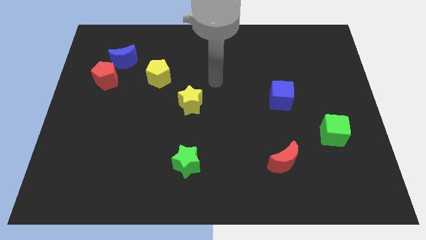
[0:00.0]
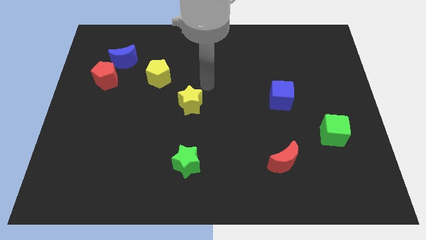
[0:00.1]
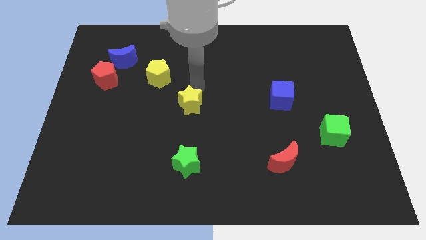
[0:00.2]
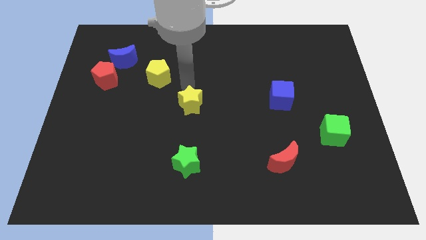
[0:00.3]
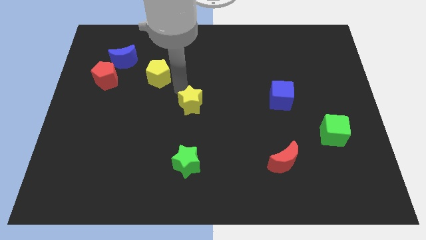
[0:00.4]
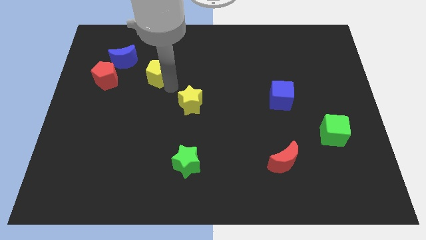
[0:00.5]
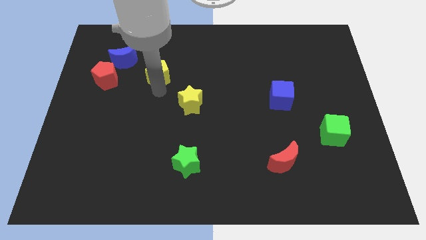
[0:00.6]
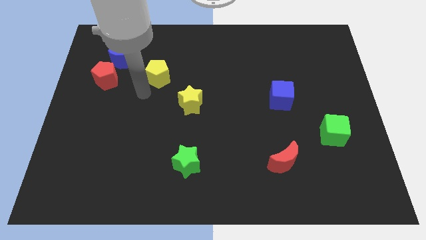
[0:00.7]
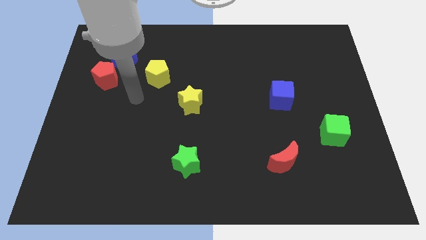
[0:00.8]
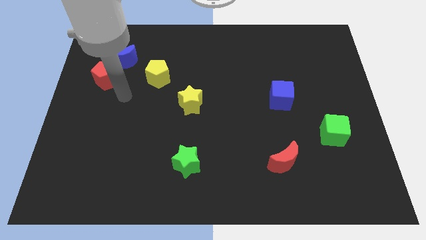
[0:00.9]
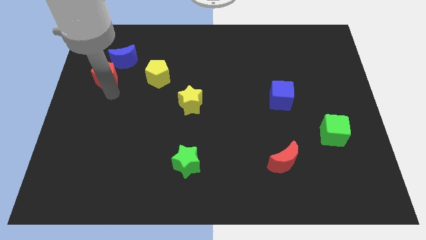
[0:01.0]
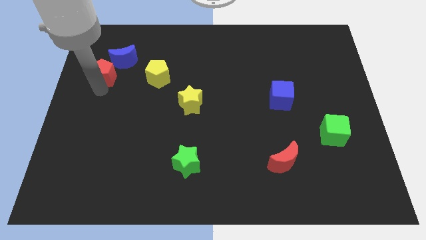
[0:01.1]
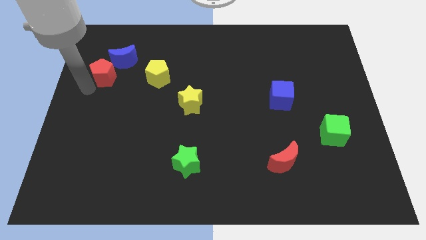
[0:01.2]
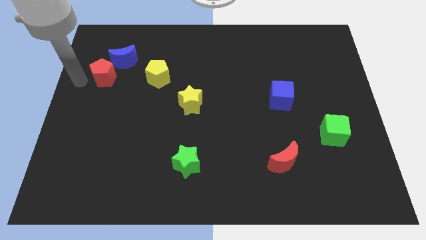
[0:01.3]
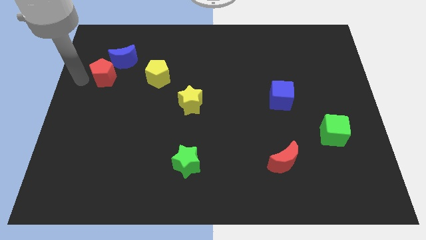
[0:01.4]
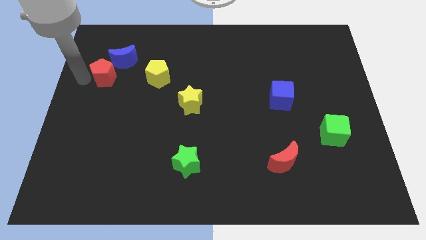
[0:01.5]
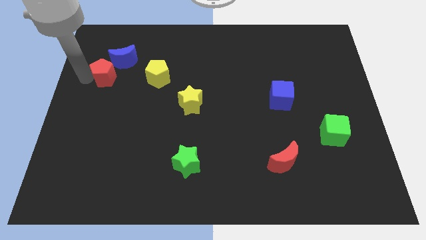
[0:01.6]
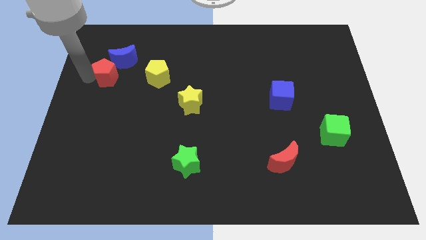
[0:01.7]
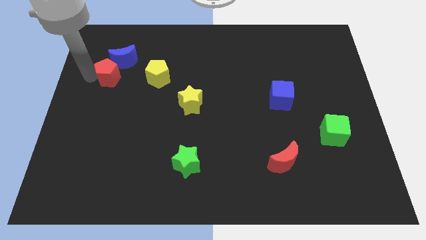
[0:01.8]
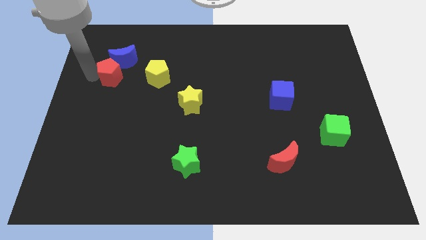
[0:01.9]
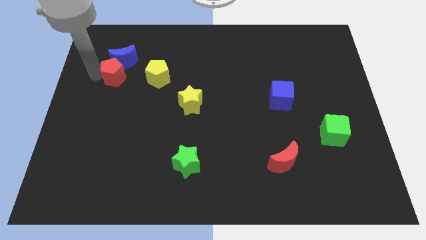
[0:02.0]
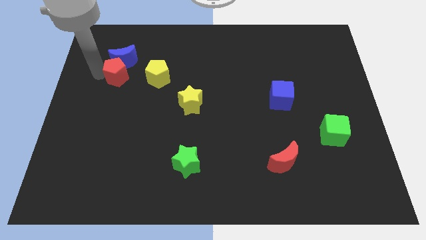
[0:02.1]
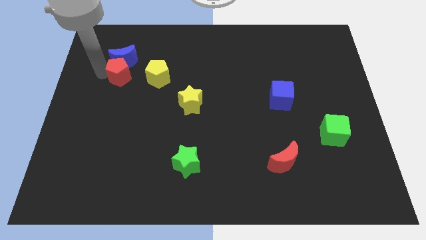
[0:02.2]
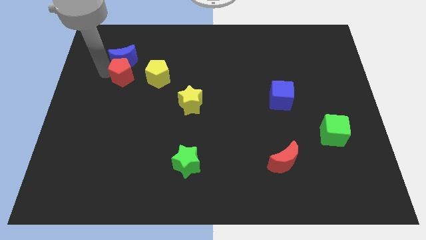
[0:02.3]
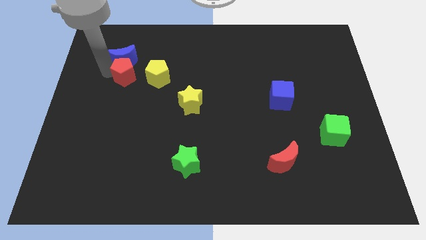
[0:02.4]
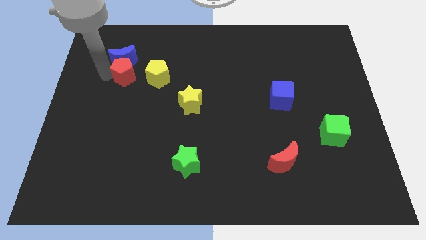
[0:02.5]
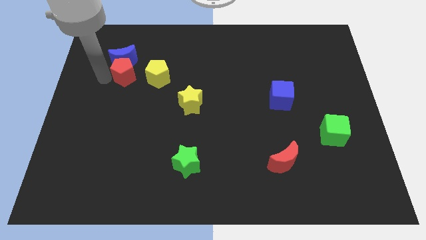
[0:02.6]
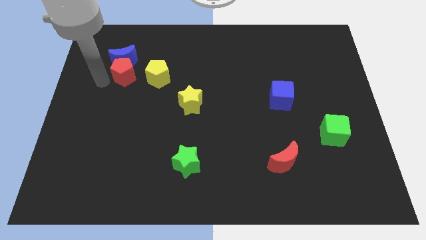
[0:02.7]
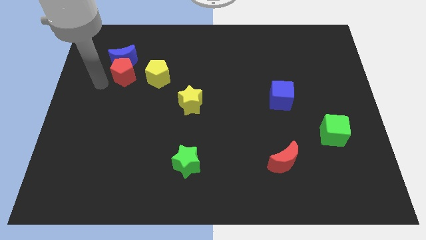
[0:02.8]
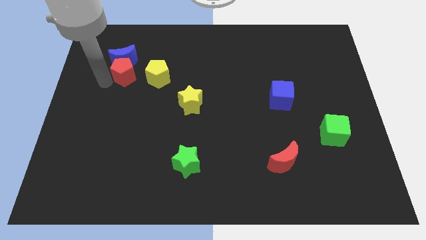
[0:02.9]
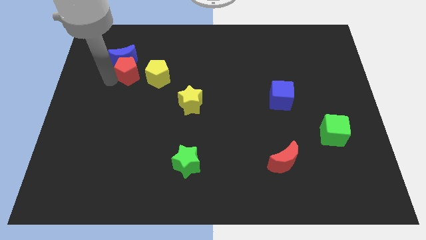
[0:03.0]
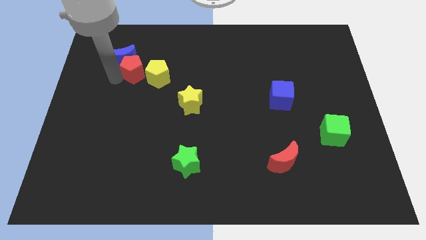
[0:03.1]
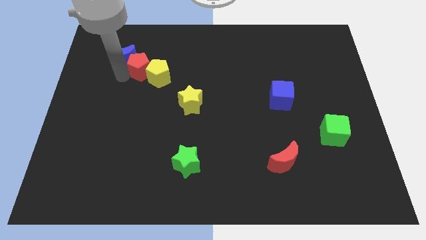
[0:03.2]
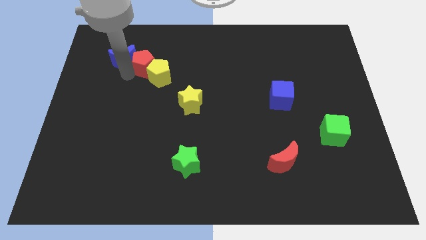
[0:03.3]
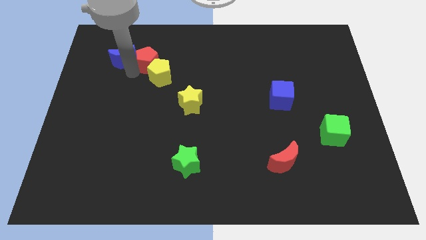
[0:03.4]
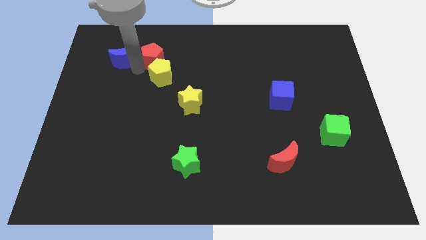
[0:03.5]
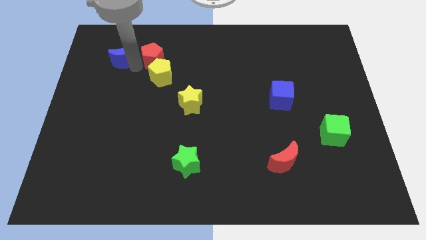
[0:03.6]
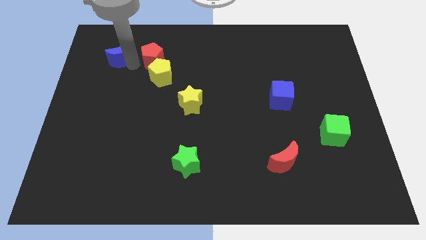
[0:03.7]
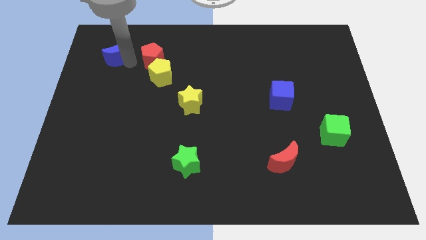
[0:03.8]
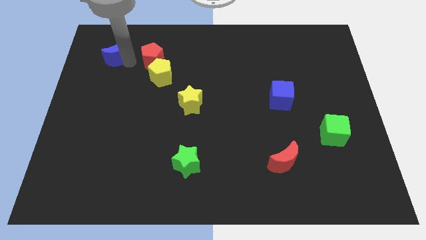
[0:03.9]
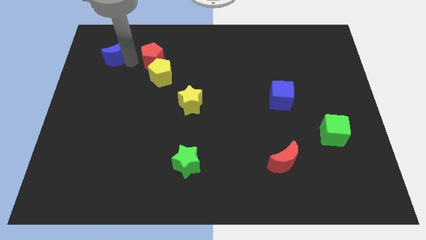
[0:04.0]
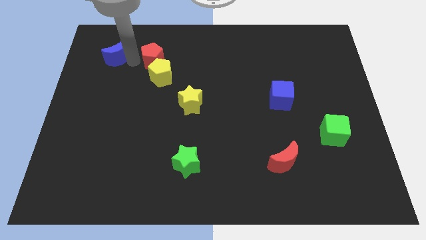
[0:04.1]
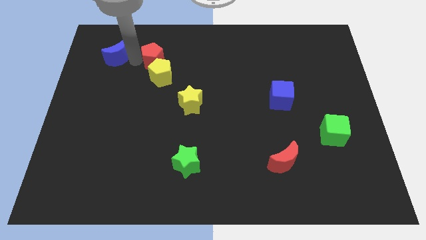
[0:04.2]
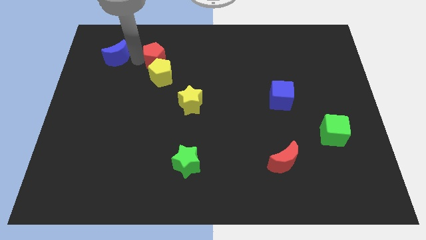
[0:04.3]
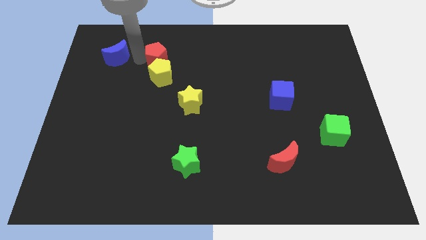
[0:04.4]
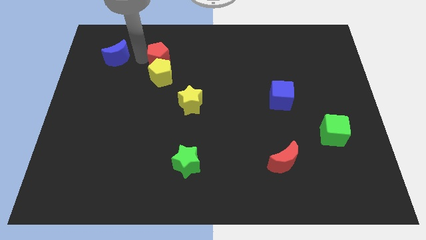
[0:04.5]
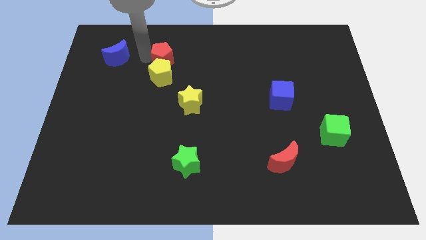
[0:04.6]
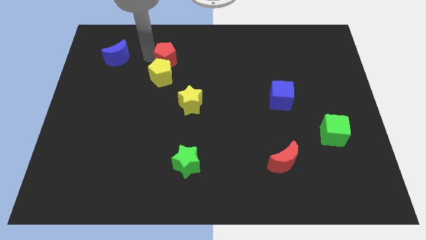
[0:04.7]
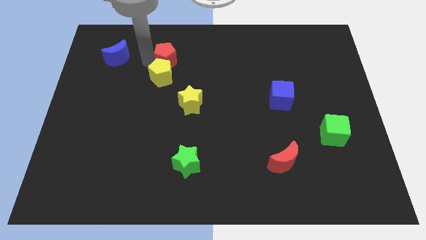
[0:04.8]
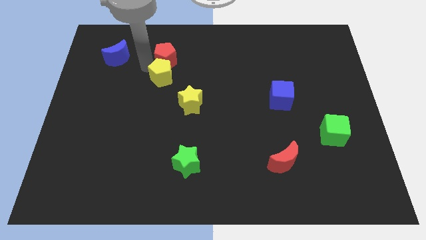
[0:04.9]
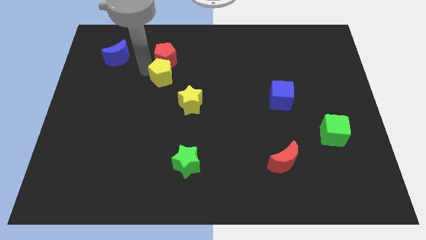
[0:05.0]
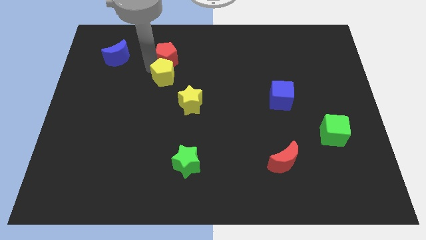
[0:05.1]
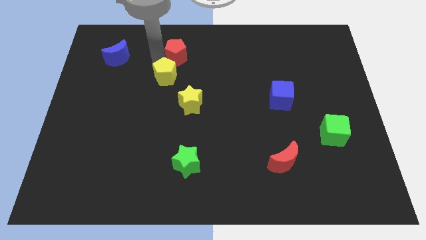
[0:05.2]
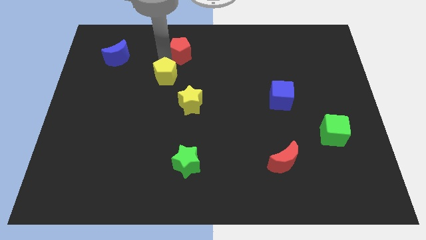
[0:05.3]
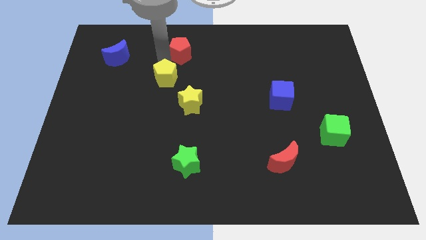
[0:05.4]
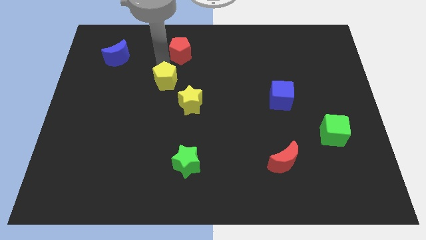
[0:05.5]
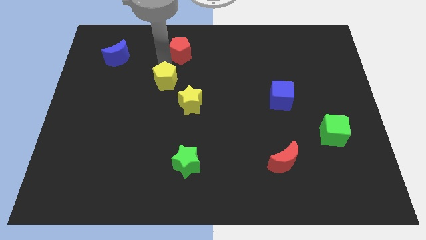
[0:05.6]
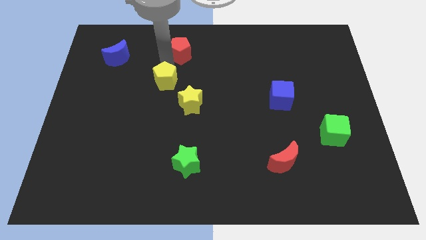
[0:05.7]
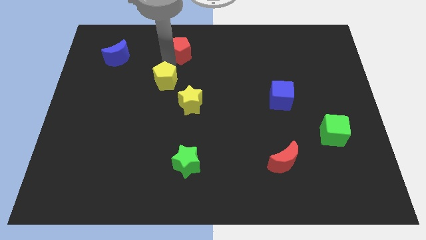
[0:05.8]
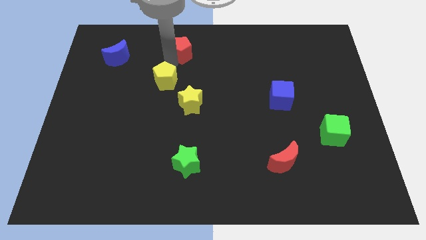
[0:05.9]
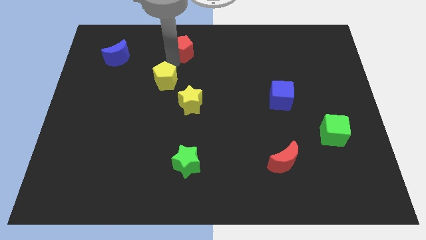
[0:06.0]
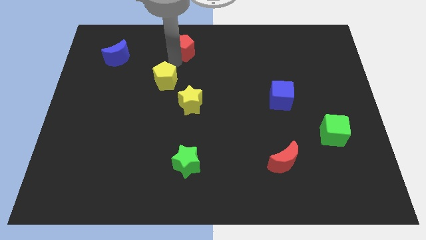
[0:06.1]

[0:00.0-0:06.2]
put the red pentagon to the top side
